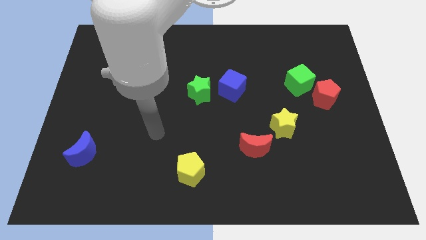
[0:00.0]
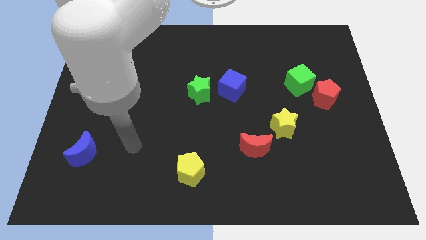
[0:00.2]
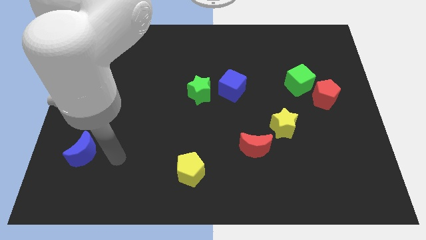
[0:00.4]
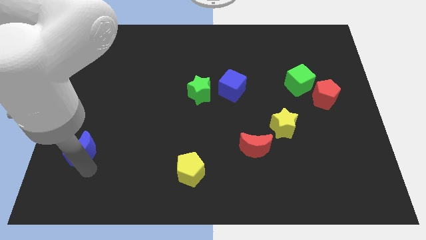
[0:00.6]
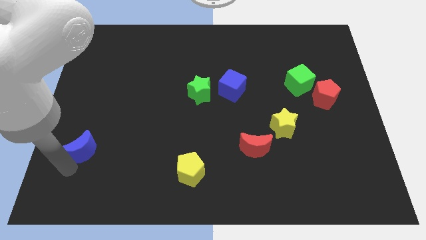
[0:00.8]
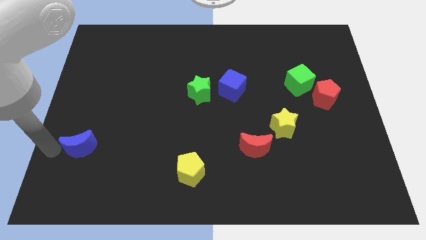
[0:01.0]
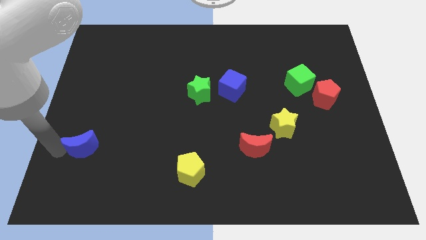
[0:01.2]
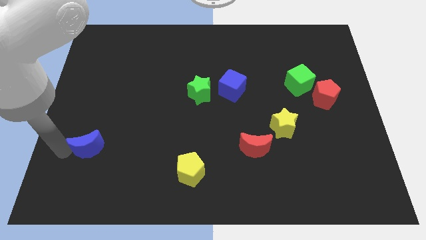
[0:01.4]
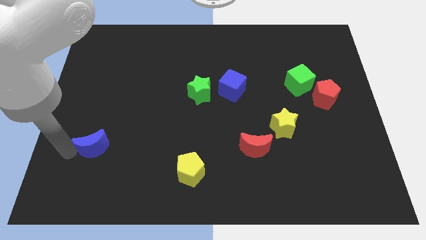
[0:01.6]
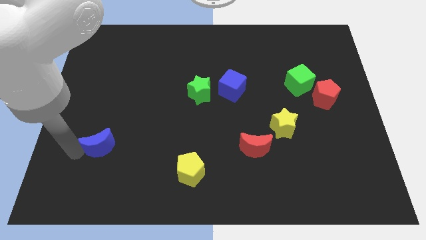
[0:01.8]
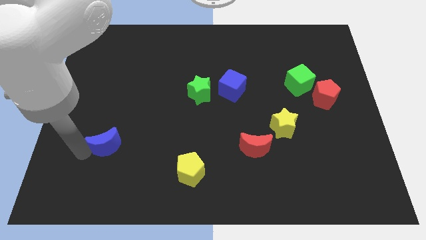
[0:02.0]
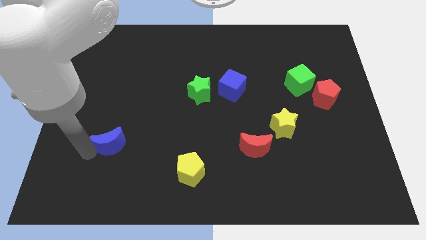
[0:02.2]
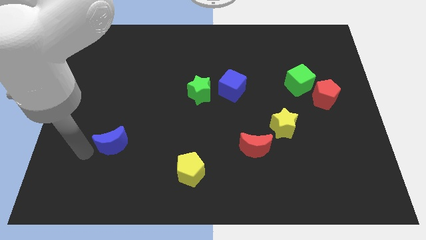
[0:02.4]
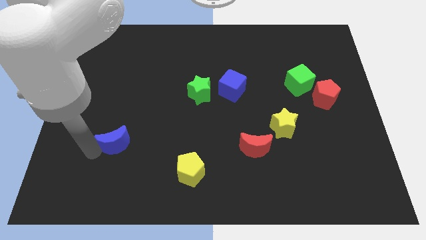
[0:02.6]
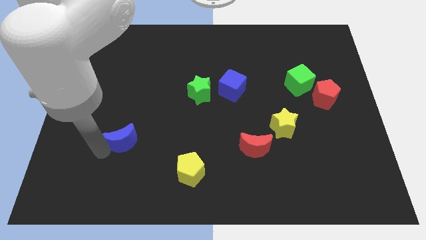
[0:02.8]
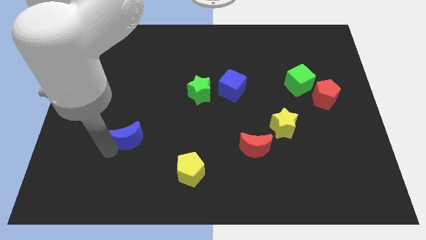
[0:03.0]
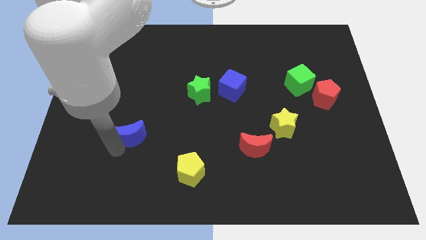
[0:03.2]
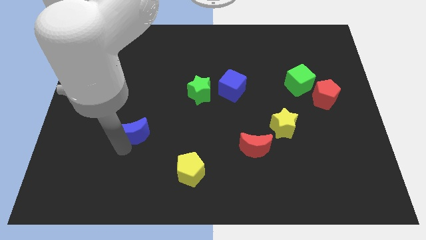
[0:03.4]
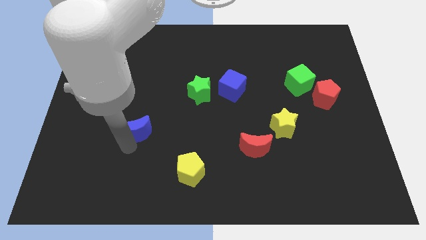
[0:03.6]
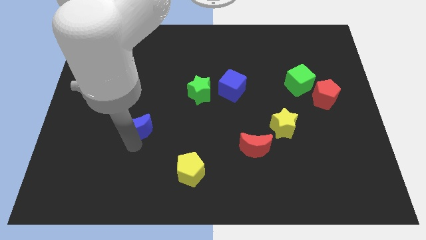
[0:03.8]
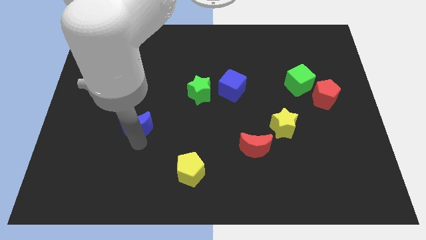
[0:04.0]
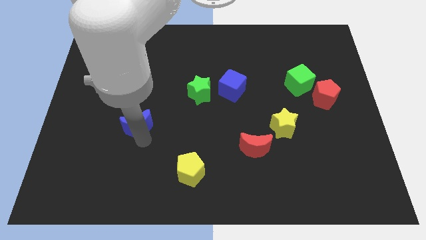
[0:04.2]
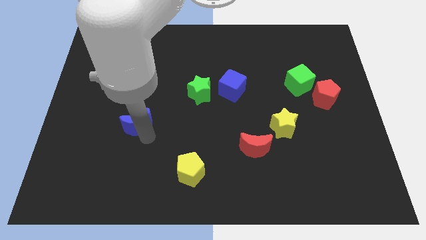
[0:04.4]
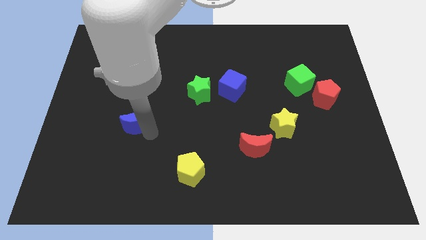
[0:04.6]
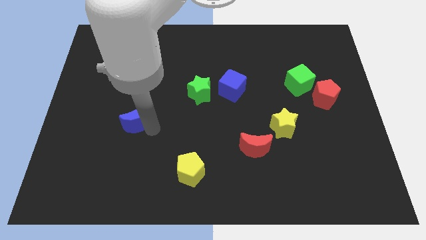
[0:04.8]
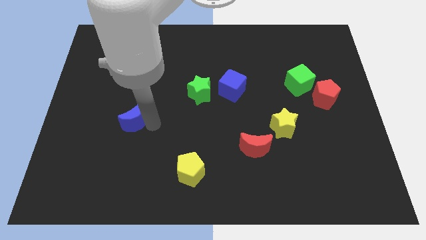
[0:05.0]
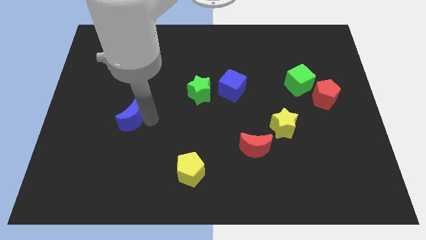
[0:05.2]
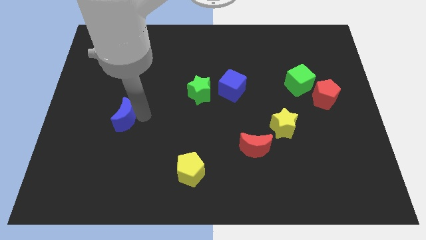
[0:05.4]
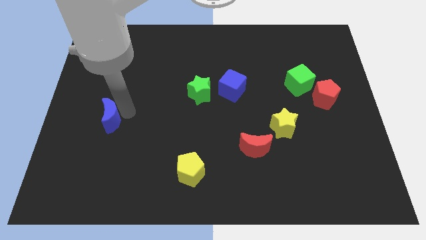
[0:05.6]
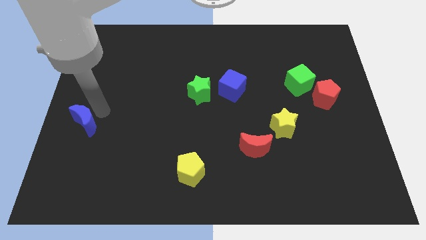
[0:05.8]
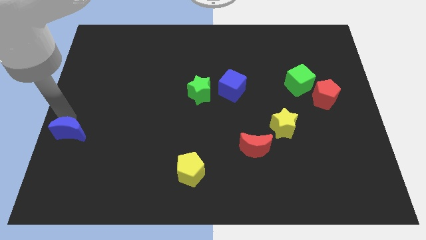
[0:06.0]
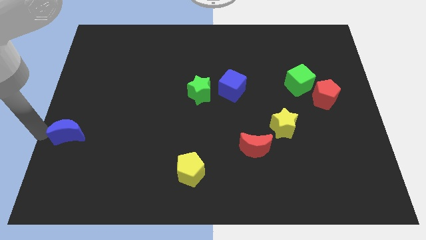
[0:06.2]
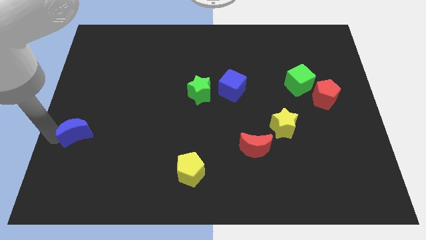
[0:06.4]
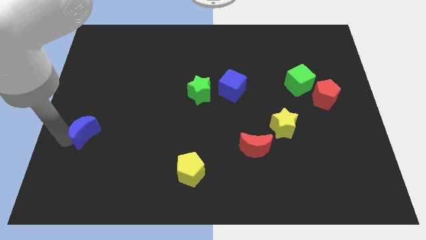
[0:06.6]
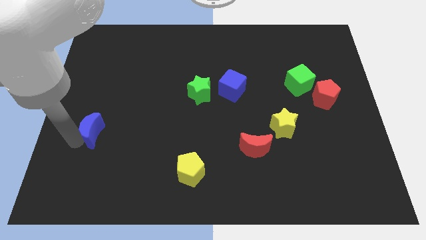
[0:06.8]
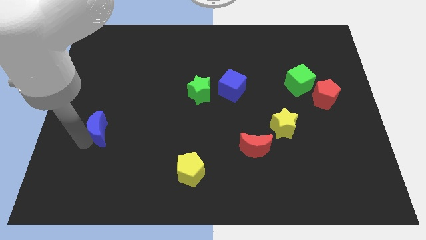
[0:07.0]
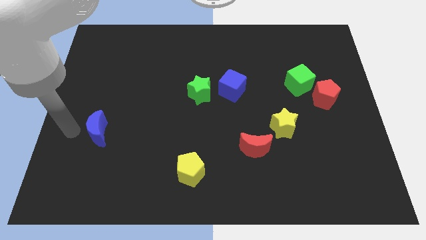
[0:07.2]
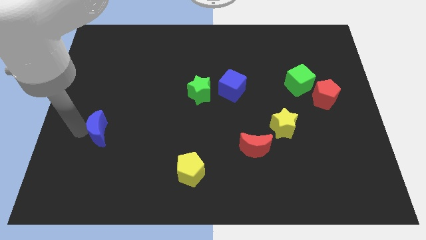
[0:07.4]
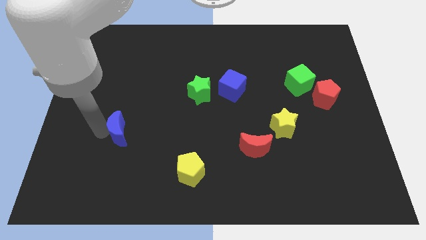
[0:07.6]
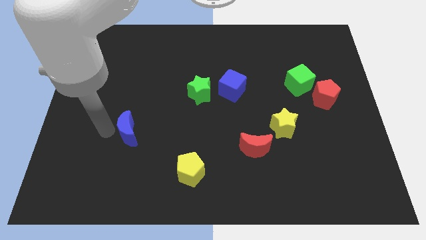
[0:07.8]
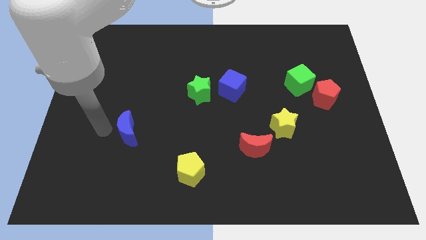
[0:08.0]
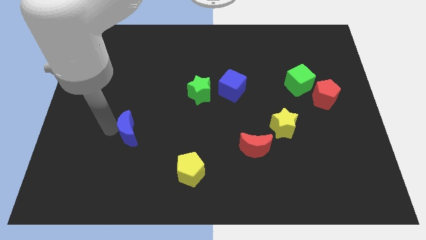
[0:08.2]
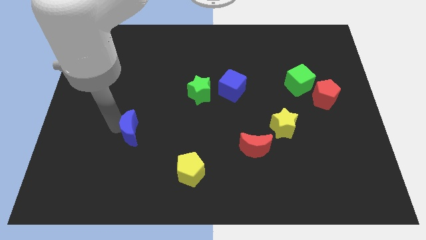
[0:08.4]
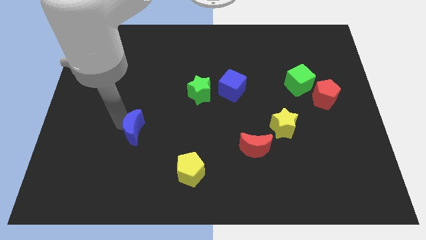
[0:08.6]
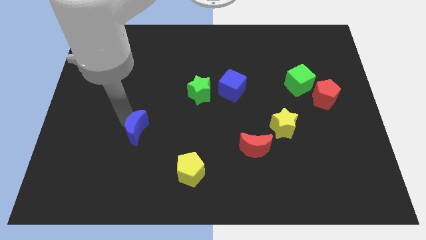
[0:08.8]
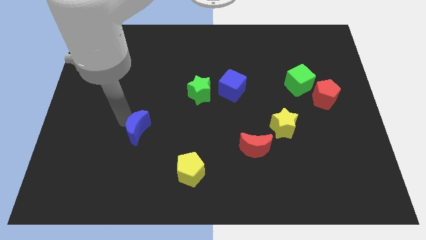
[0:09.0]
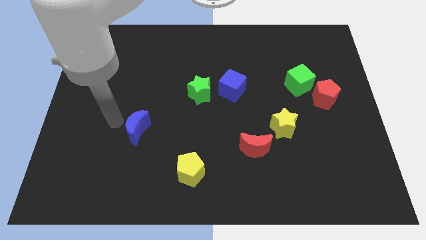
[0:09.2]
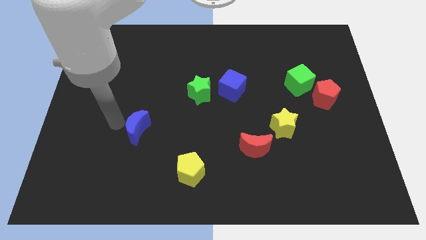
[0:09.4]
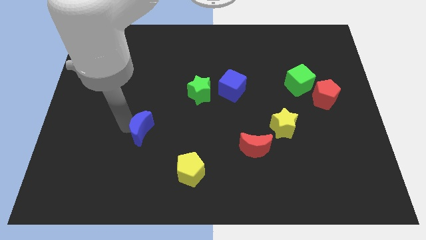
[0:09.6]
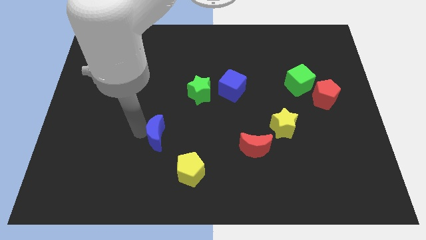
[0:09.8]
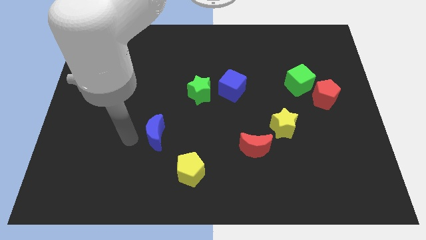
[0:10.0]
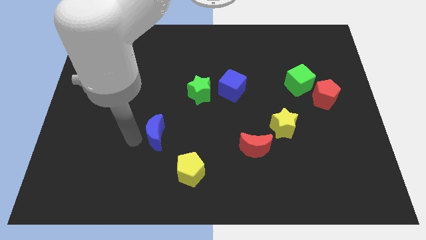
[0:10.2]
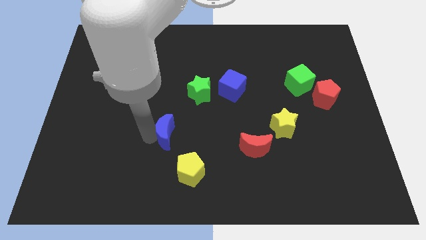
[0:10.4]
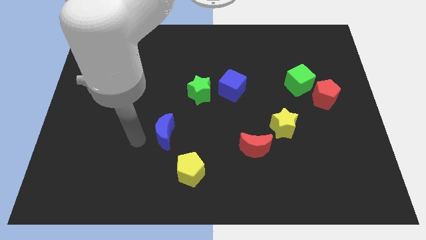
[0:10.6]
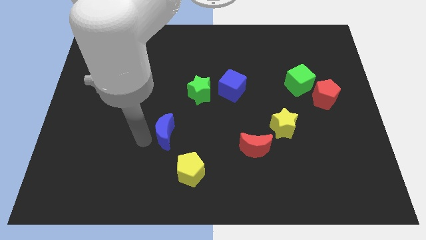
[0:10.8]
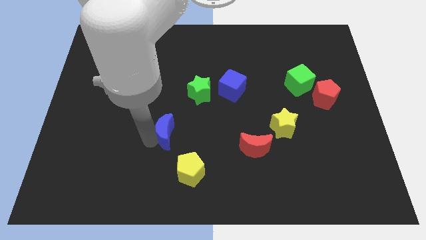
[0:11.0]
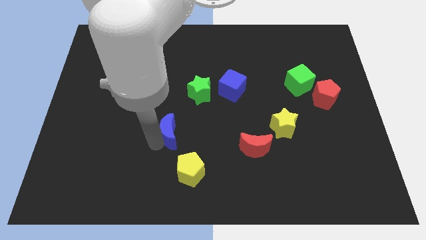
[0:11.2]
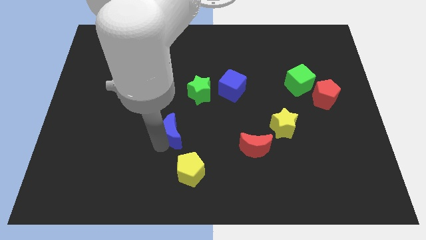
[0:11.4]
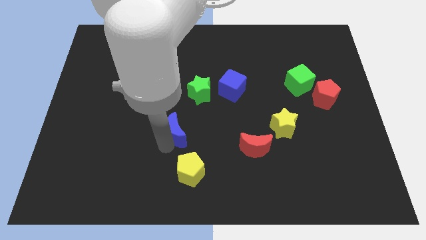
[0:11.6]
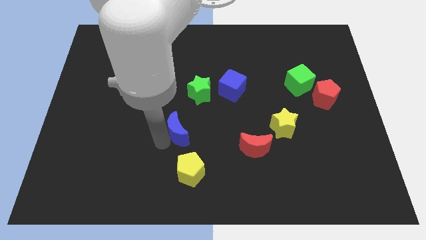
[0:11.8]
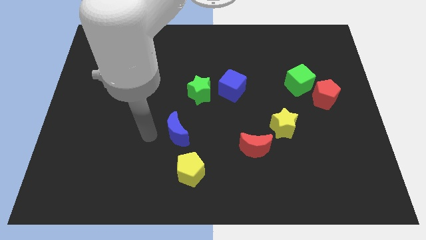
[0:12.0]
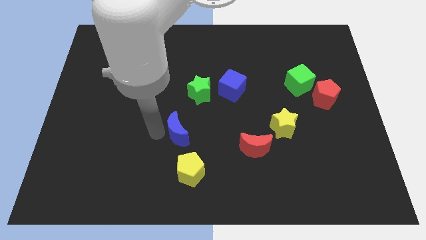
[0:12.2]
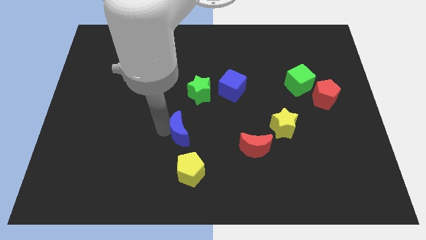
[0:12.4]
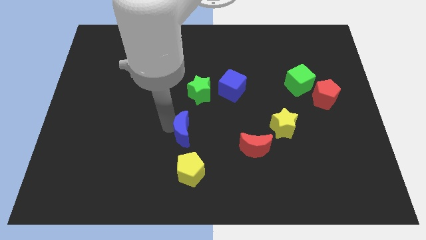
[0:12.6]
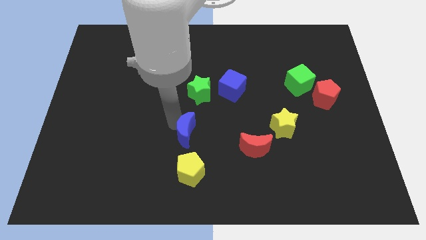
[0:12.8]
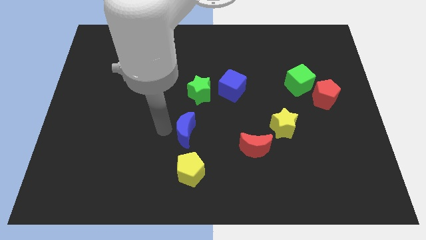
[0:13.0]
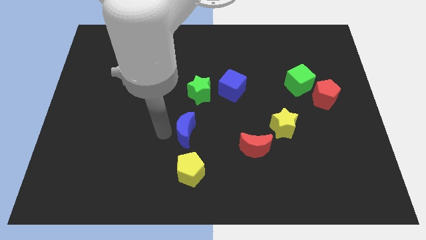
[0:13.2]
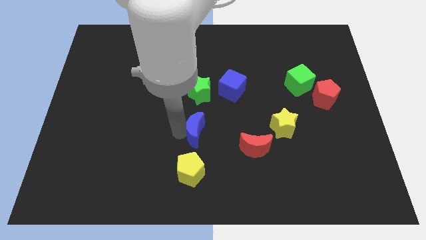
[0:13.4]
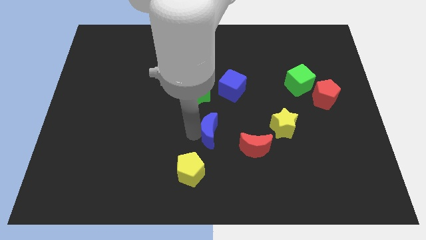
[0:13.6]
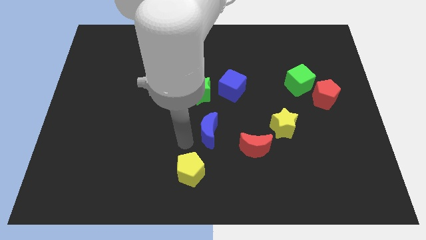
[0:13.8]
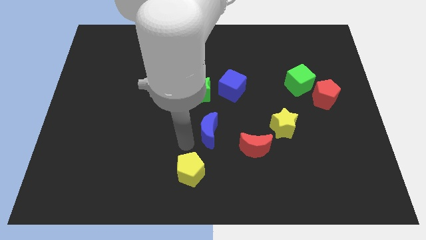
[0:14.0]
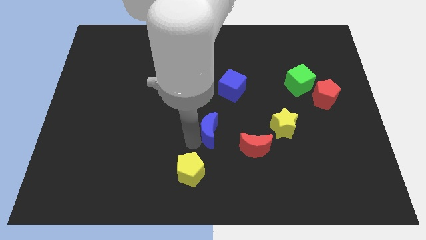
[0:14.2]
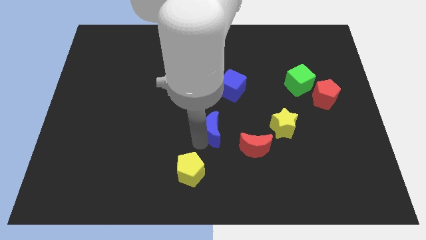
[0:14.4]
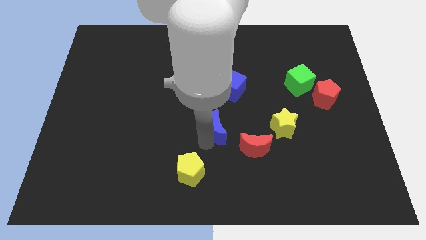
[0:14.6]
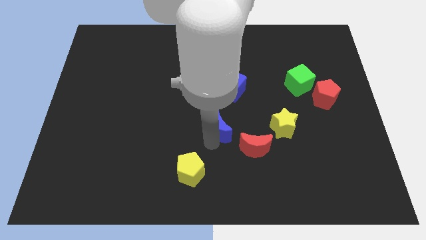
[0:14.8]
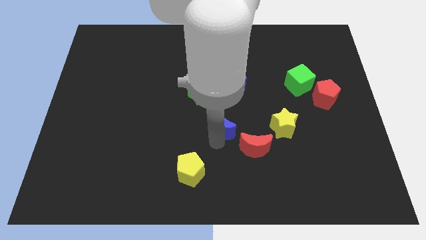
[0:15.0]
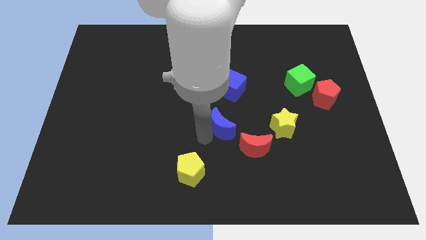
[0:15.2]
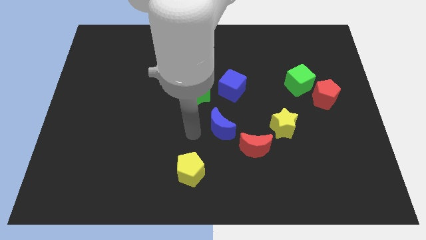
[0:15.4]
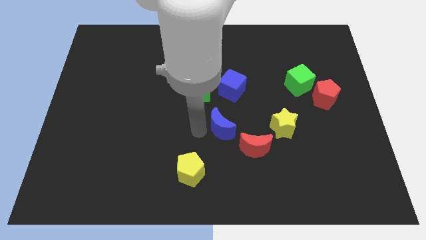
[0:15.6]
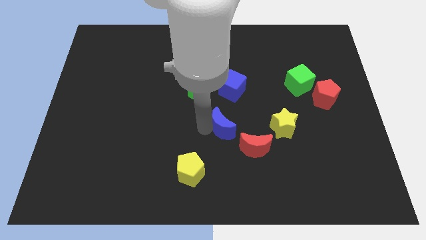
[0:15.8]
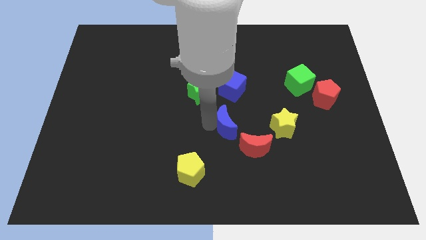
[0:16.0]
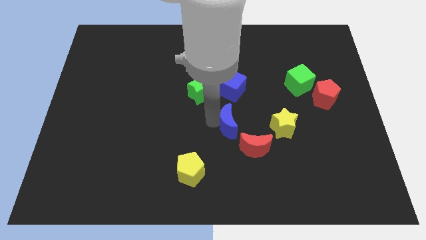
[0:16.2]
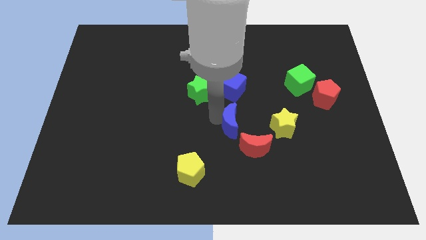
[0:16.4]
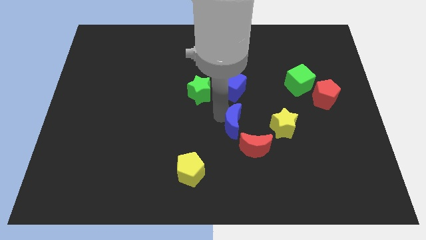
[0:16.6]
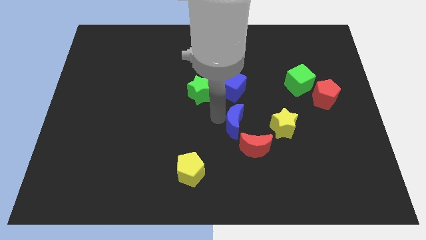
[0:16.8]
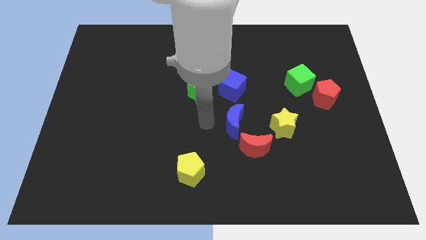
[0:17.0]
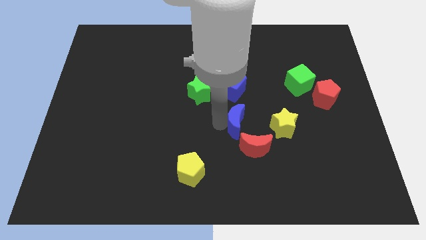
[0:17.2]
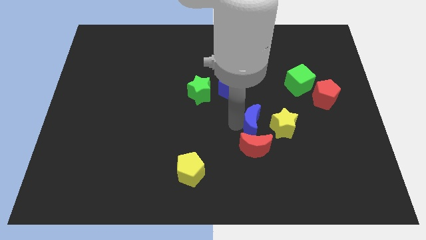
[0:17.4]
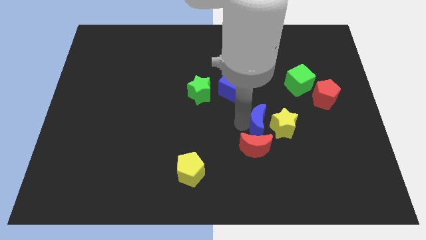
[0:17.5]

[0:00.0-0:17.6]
move the blue moon close to the yellow star
